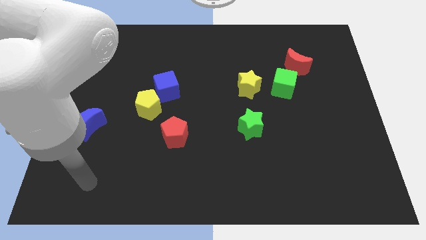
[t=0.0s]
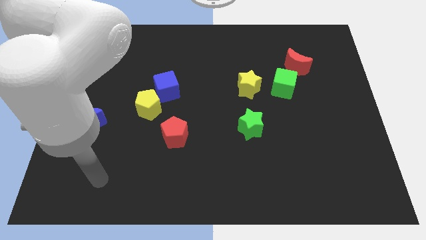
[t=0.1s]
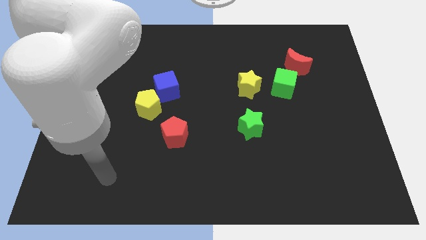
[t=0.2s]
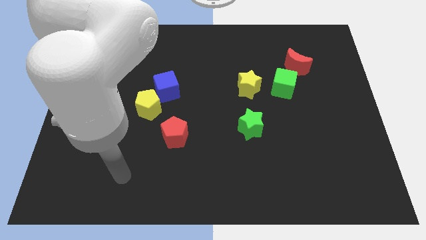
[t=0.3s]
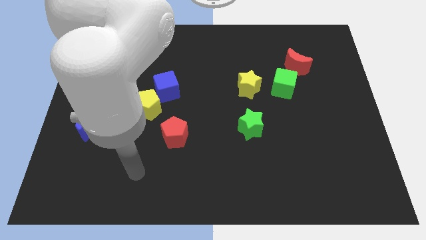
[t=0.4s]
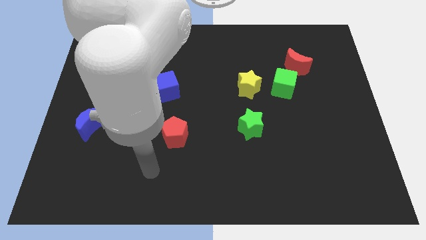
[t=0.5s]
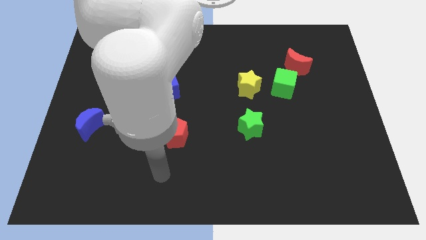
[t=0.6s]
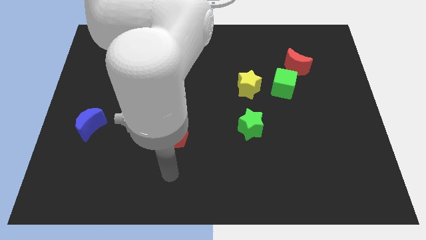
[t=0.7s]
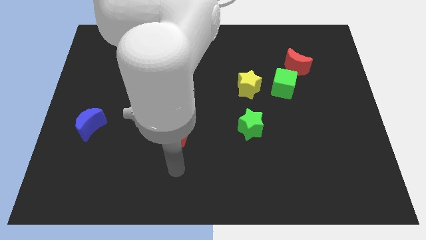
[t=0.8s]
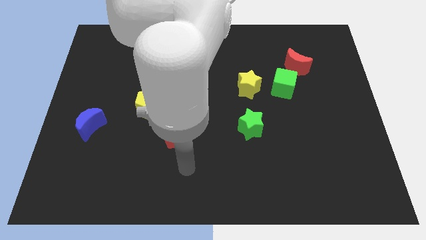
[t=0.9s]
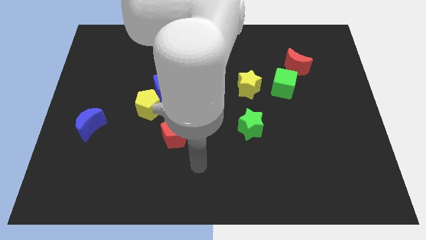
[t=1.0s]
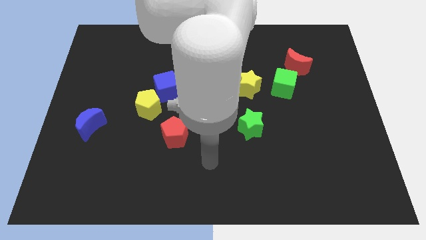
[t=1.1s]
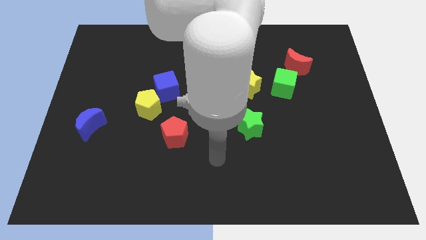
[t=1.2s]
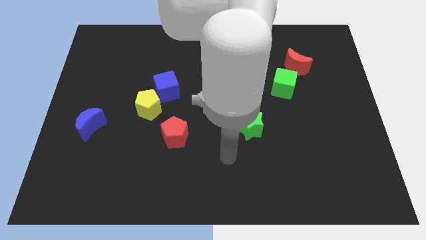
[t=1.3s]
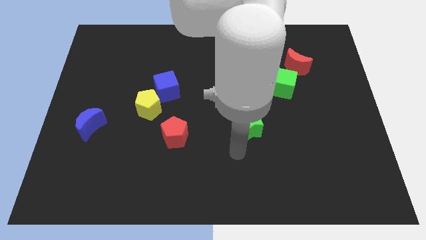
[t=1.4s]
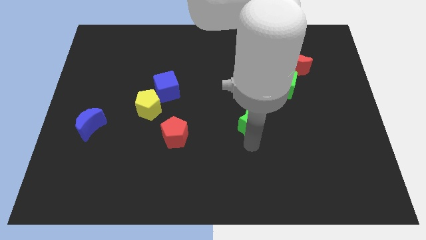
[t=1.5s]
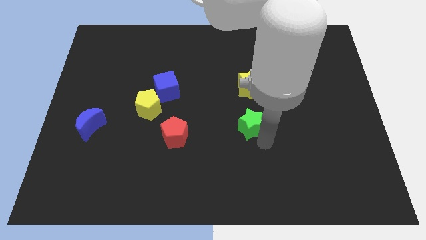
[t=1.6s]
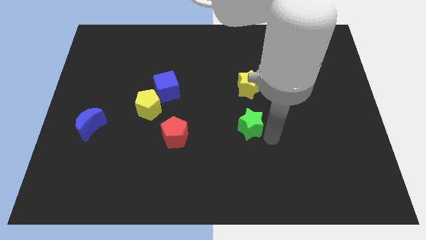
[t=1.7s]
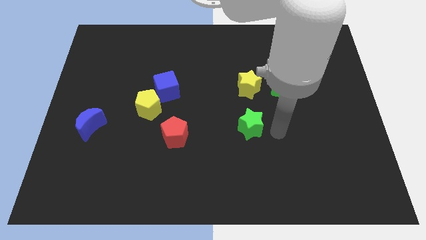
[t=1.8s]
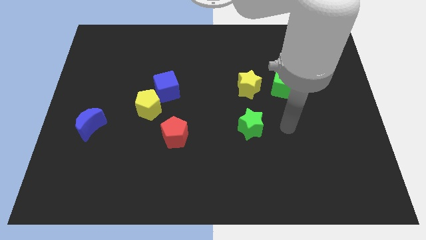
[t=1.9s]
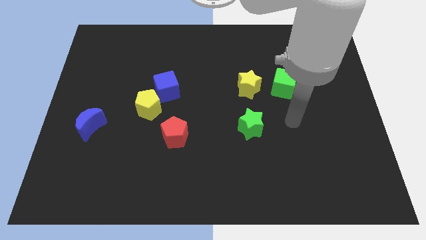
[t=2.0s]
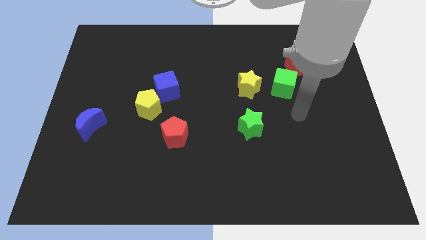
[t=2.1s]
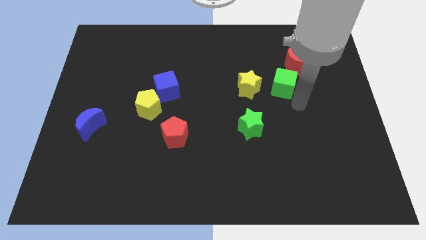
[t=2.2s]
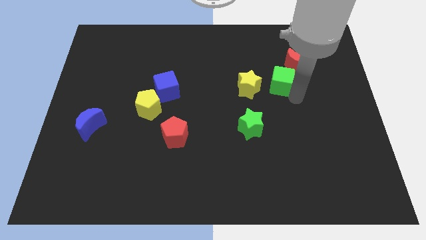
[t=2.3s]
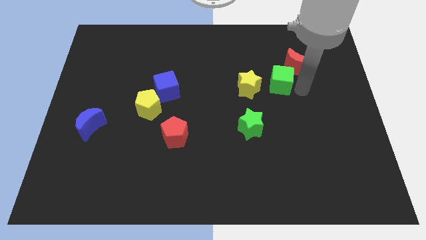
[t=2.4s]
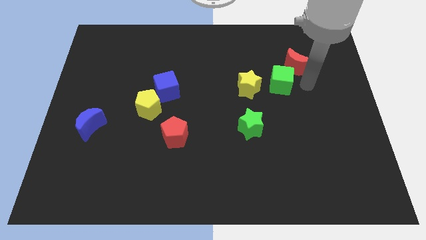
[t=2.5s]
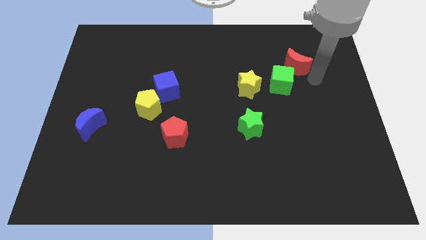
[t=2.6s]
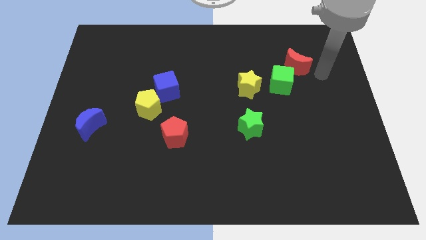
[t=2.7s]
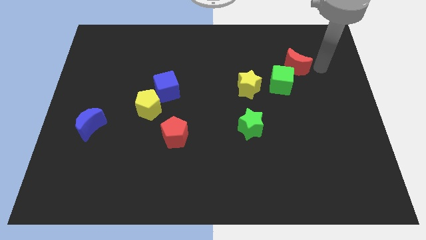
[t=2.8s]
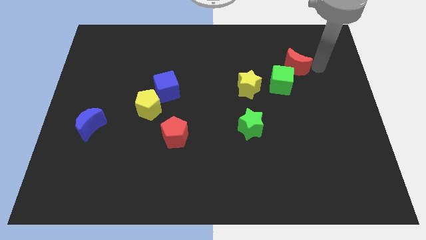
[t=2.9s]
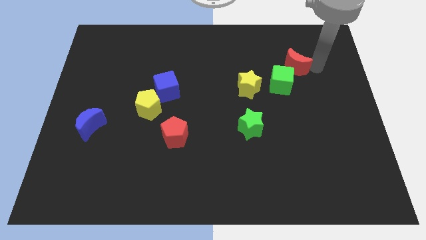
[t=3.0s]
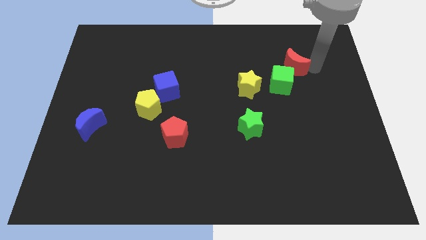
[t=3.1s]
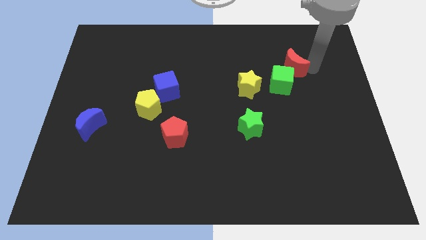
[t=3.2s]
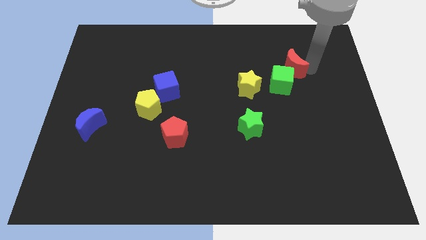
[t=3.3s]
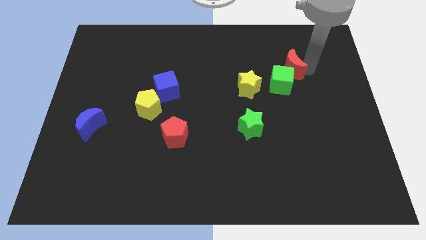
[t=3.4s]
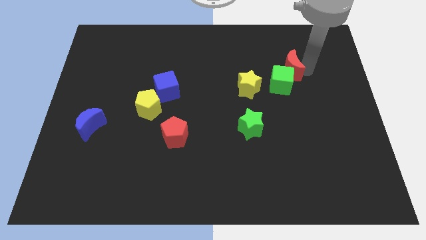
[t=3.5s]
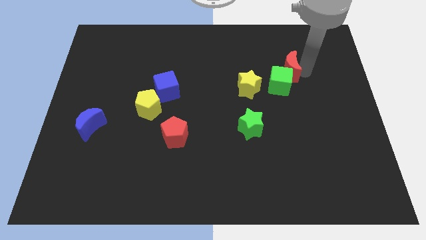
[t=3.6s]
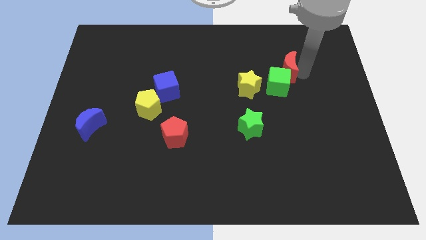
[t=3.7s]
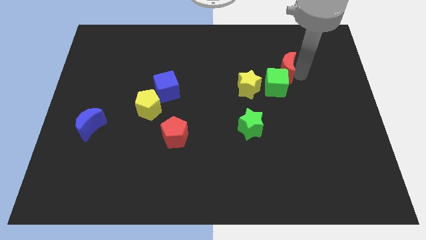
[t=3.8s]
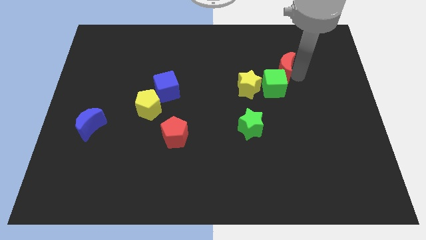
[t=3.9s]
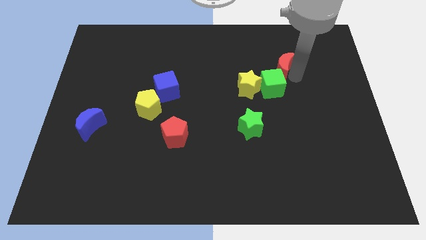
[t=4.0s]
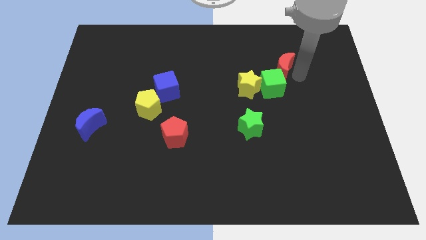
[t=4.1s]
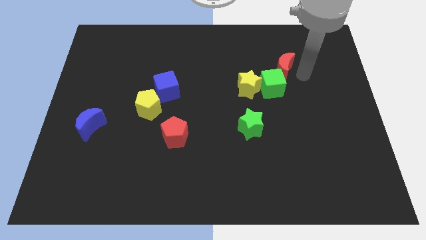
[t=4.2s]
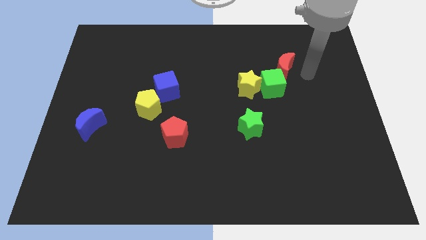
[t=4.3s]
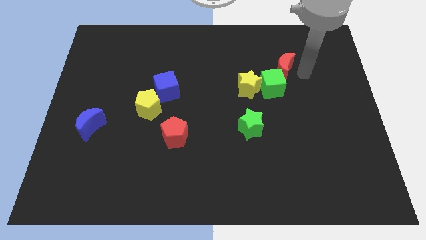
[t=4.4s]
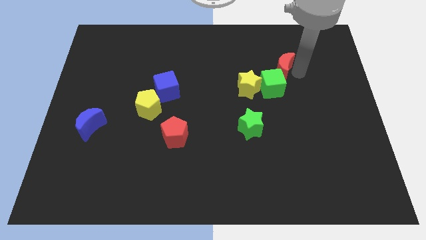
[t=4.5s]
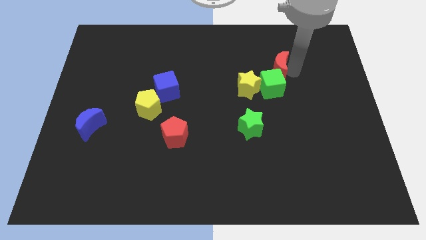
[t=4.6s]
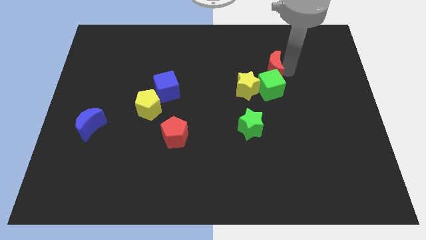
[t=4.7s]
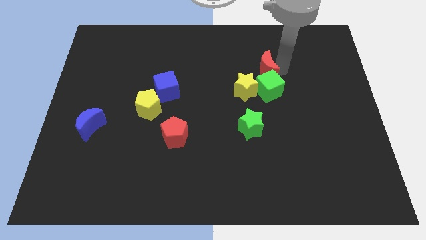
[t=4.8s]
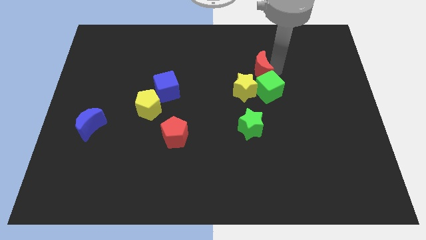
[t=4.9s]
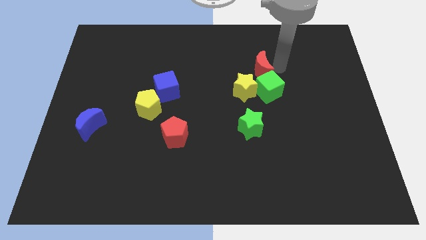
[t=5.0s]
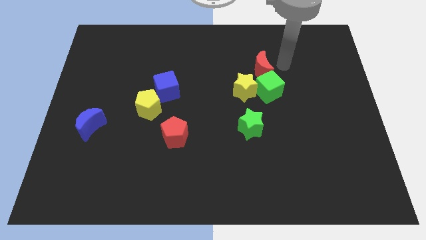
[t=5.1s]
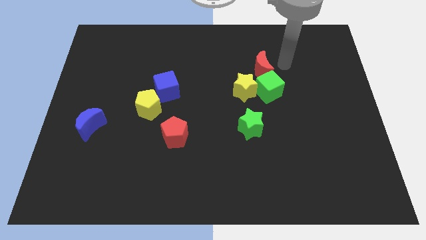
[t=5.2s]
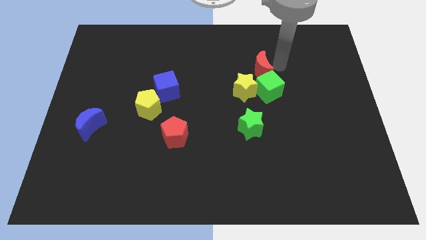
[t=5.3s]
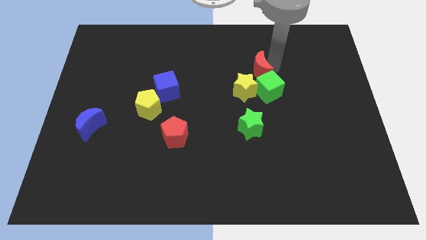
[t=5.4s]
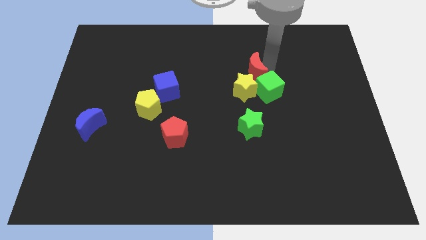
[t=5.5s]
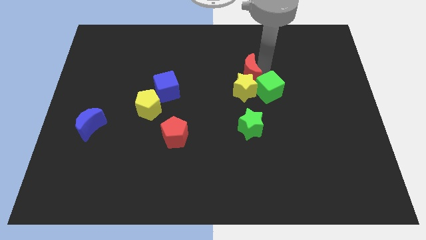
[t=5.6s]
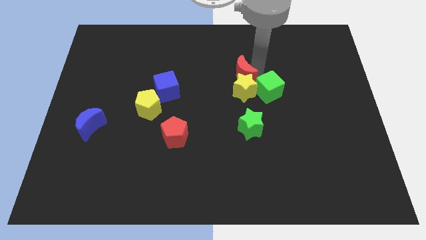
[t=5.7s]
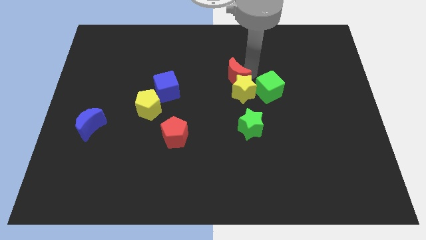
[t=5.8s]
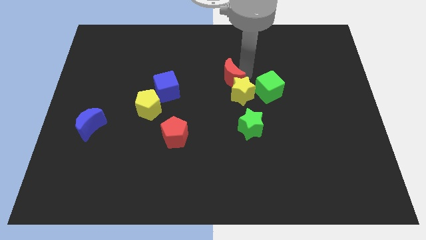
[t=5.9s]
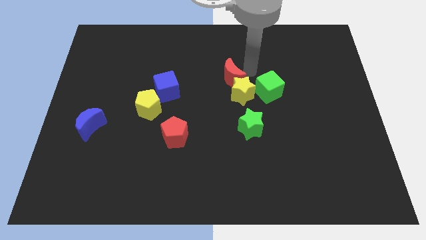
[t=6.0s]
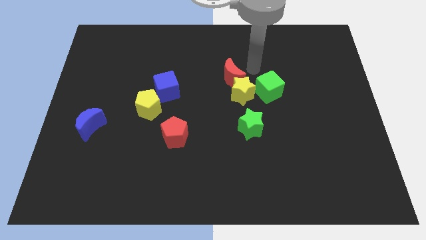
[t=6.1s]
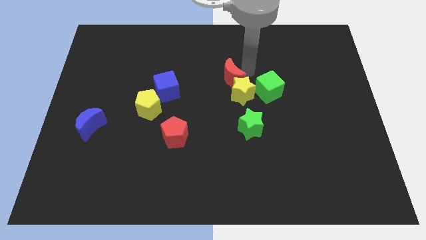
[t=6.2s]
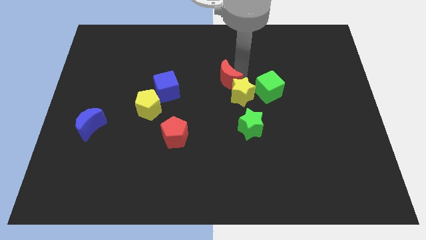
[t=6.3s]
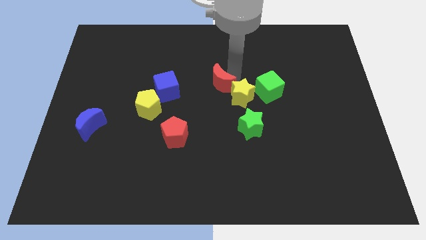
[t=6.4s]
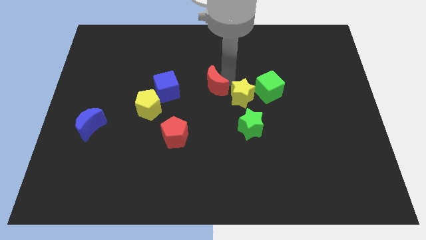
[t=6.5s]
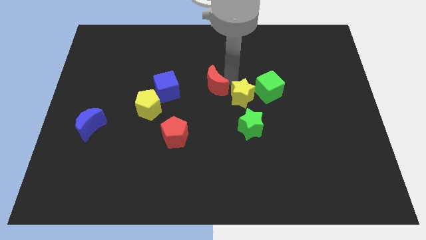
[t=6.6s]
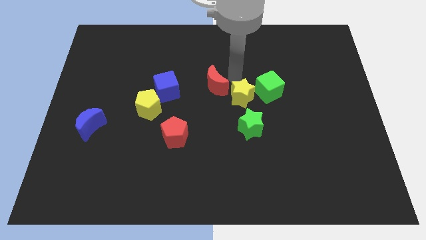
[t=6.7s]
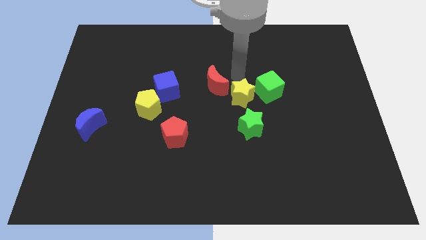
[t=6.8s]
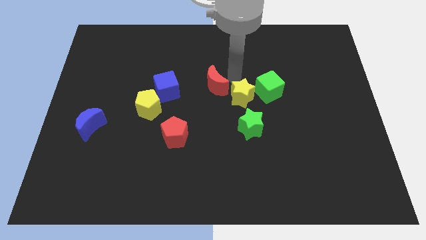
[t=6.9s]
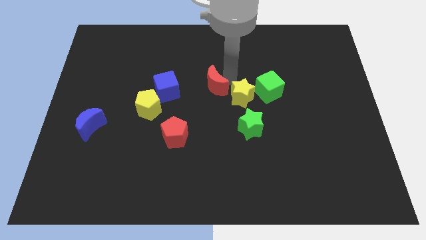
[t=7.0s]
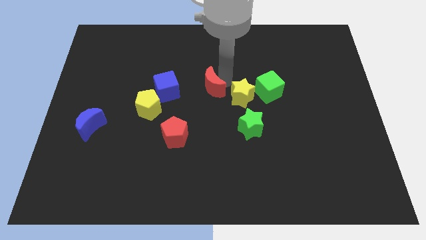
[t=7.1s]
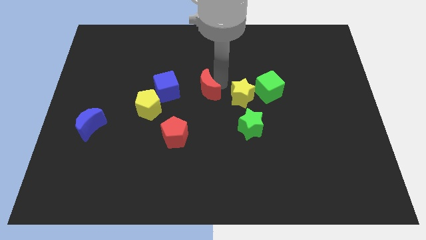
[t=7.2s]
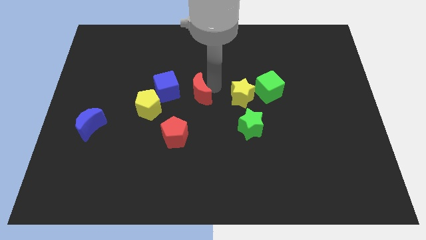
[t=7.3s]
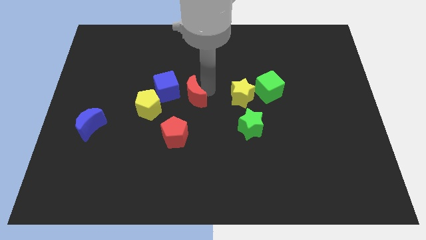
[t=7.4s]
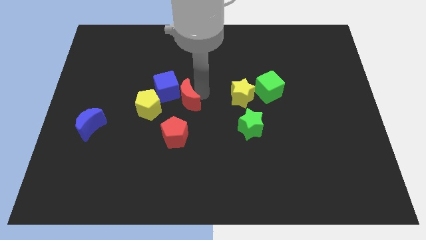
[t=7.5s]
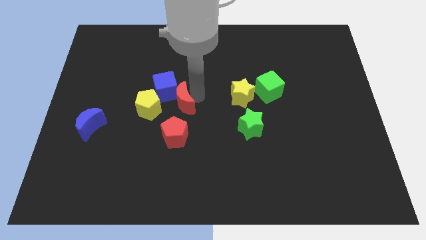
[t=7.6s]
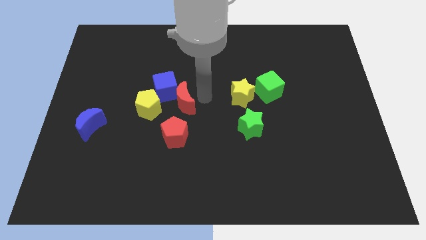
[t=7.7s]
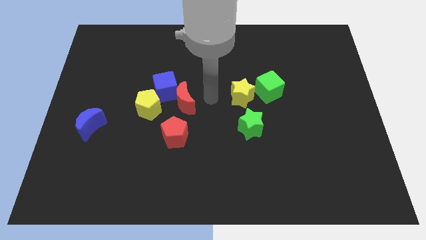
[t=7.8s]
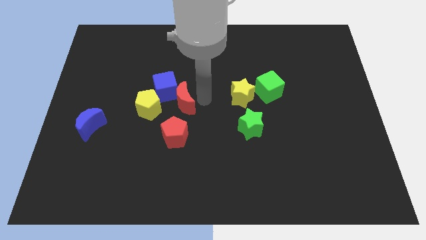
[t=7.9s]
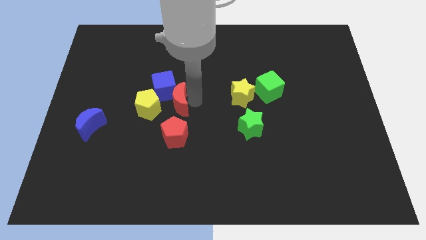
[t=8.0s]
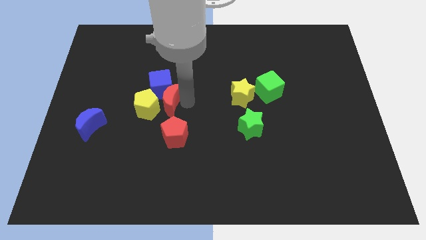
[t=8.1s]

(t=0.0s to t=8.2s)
push the red moon close to the yellow pentagon

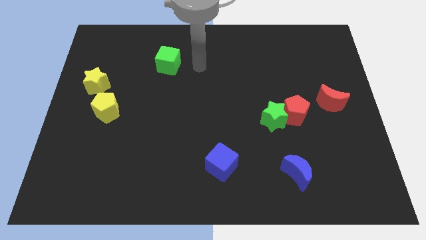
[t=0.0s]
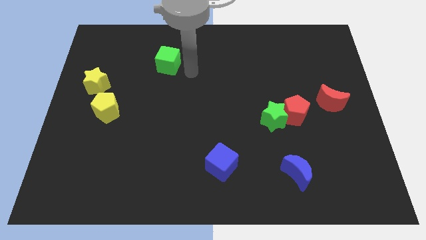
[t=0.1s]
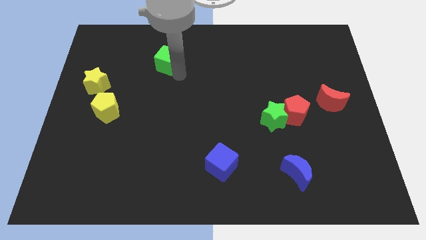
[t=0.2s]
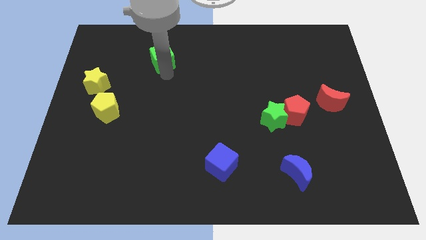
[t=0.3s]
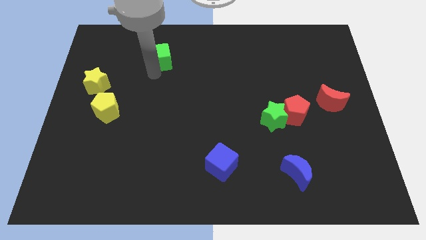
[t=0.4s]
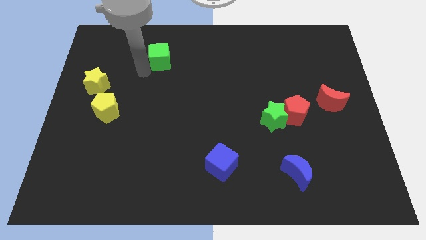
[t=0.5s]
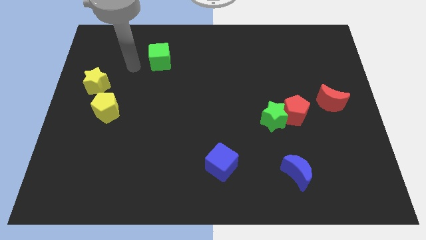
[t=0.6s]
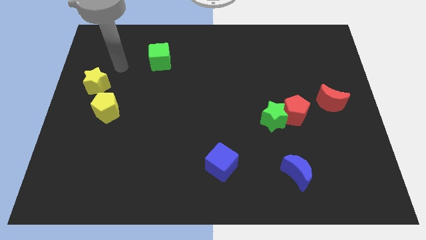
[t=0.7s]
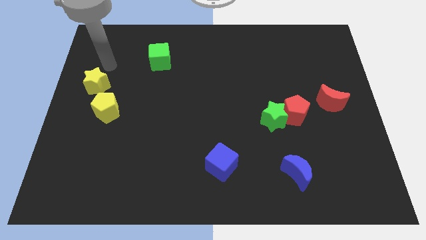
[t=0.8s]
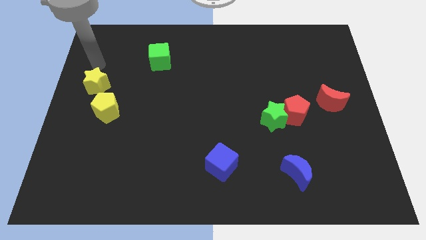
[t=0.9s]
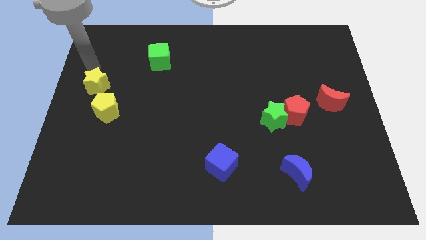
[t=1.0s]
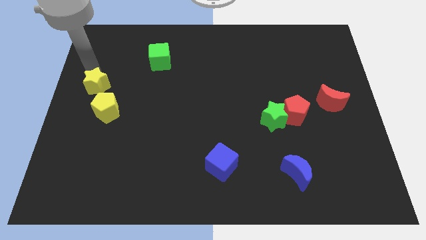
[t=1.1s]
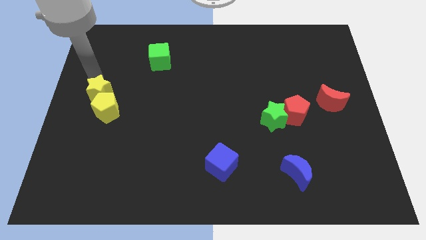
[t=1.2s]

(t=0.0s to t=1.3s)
push the yellow star towards the yellow pentagon
